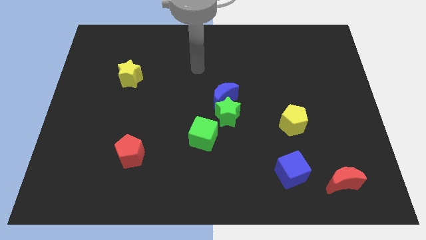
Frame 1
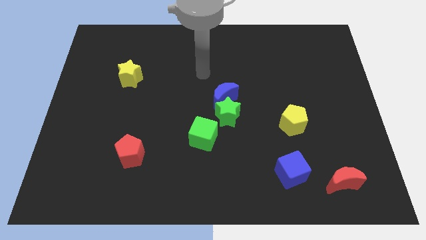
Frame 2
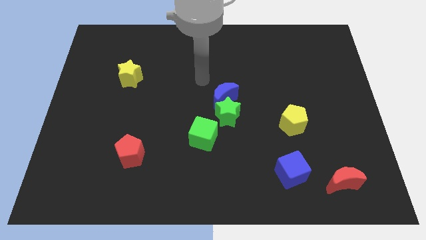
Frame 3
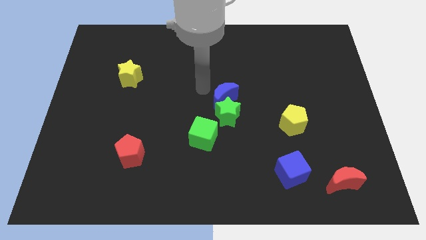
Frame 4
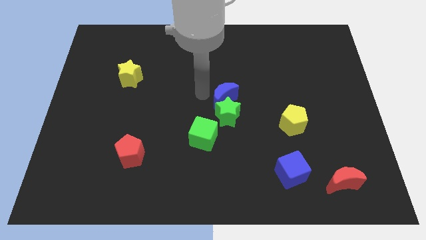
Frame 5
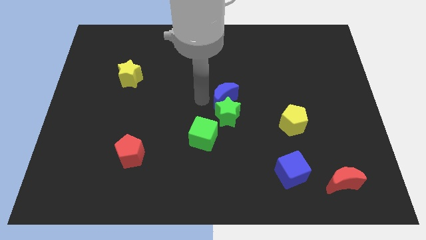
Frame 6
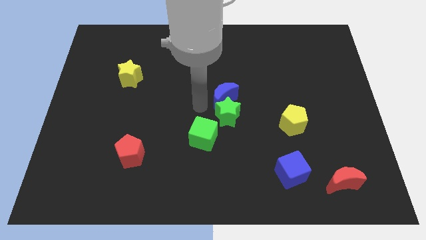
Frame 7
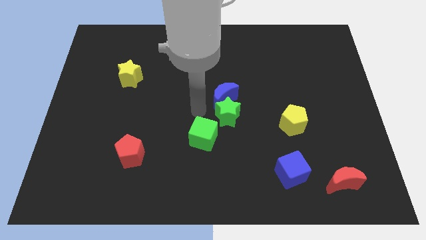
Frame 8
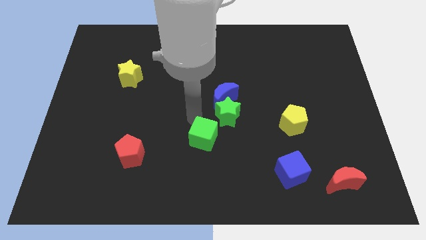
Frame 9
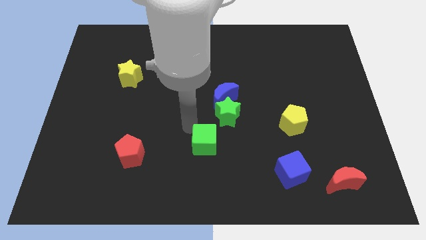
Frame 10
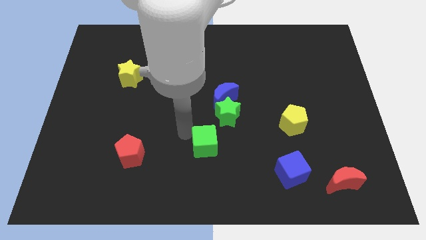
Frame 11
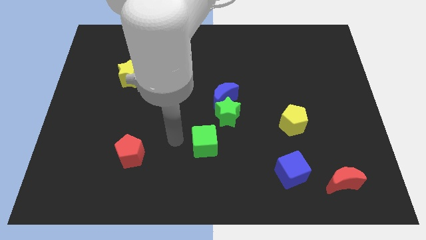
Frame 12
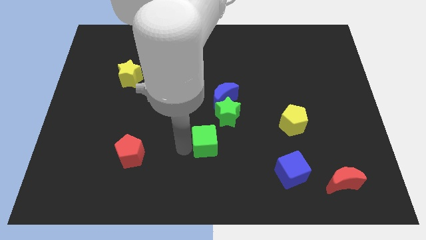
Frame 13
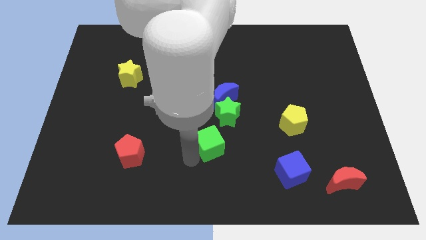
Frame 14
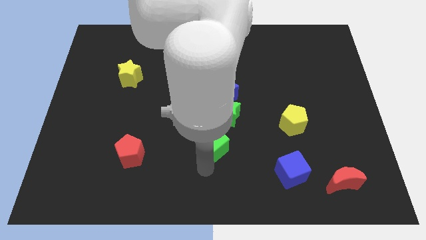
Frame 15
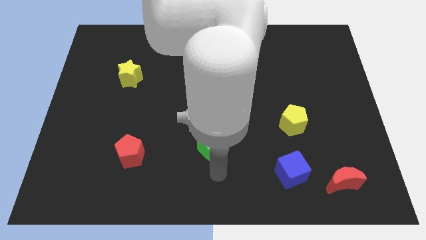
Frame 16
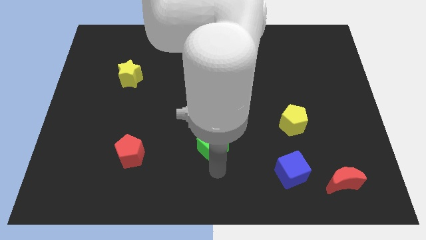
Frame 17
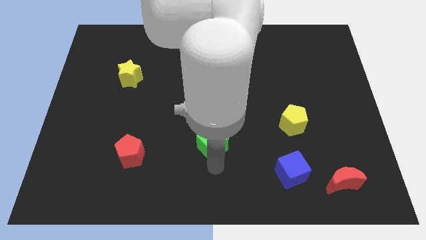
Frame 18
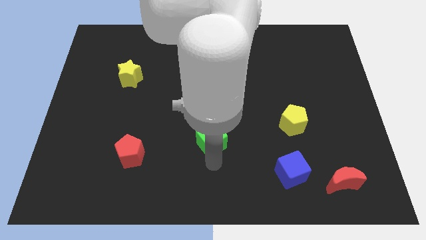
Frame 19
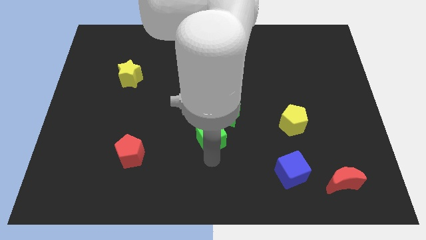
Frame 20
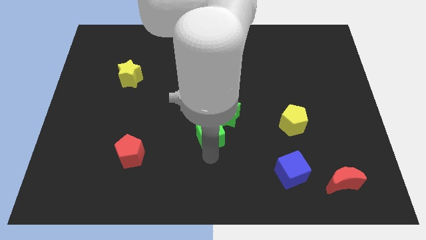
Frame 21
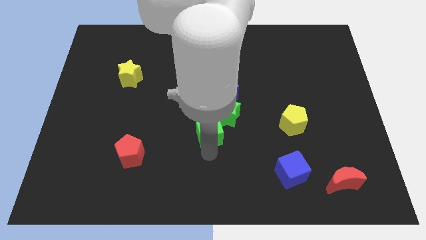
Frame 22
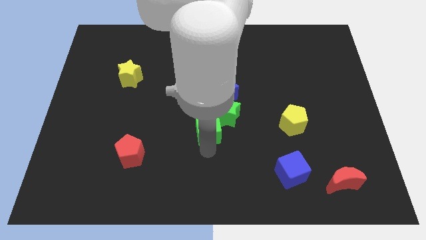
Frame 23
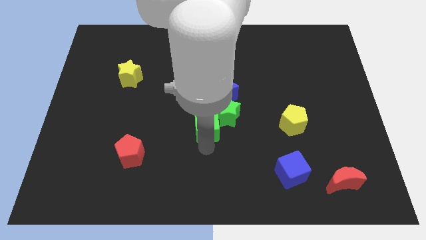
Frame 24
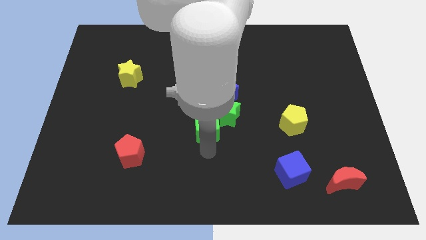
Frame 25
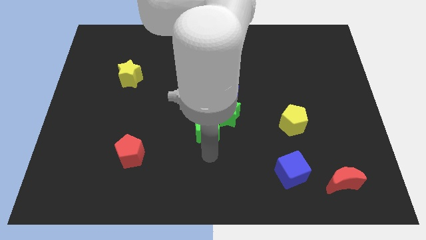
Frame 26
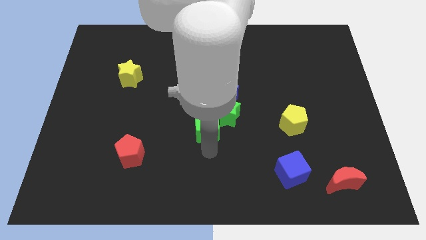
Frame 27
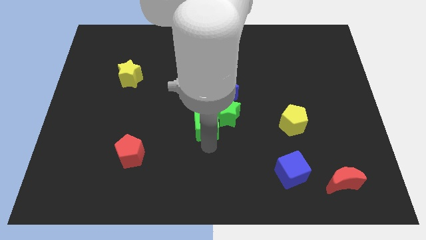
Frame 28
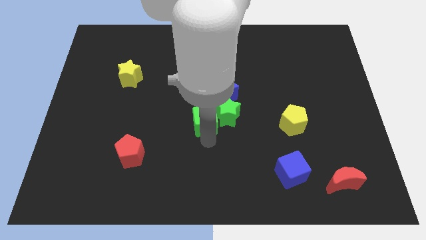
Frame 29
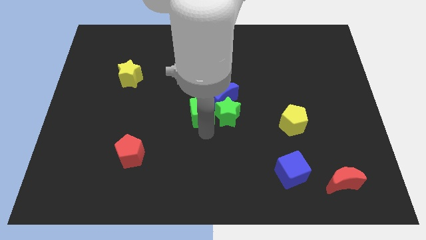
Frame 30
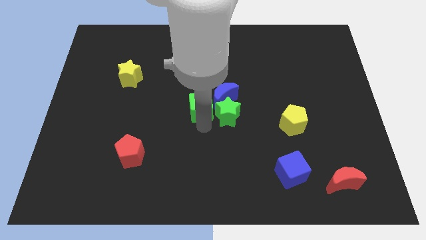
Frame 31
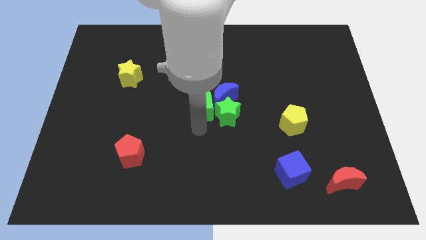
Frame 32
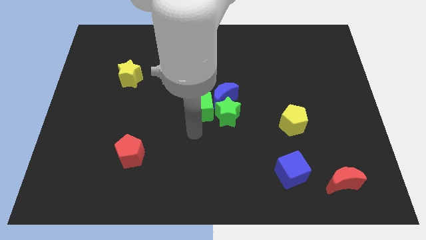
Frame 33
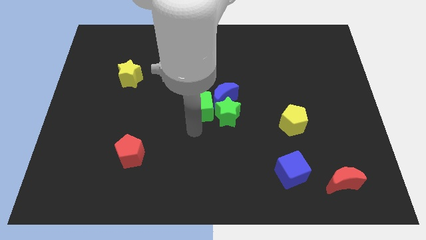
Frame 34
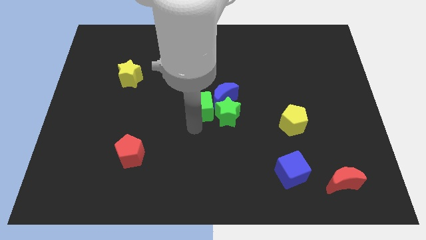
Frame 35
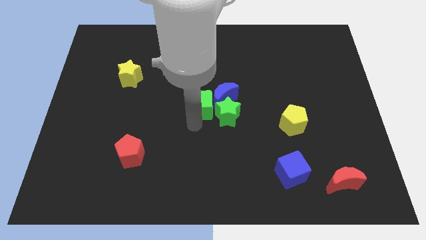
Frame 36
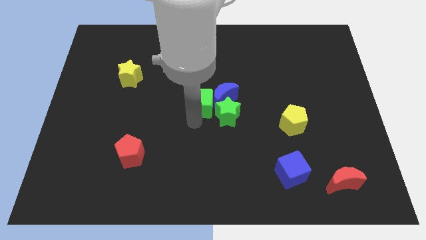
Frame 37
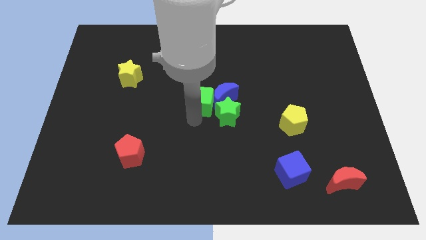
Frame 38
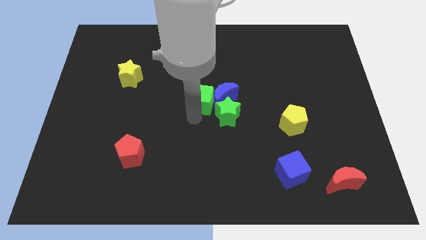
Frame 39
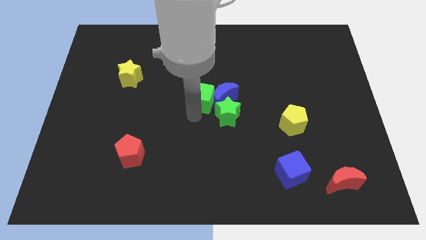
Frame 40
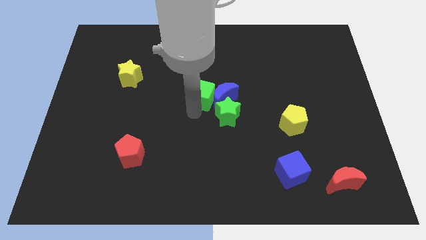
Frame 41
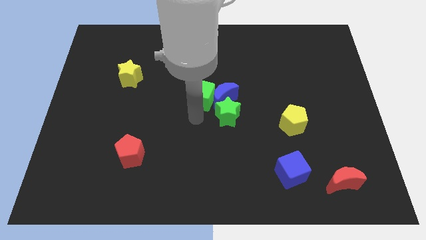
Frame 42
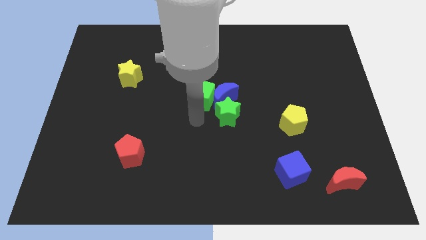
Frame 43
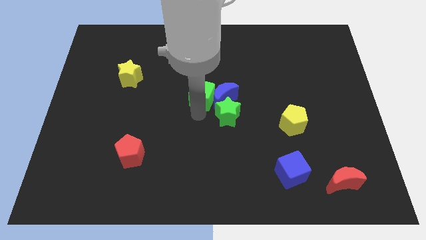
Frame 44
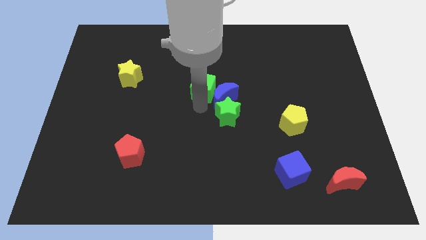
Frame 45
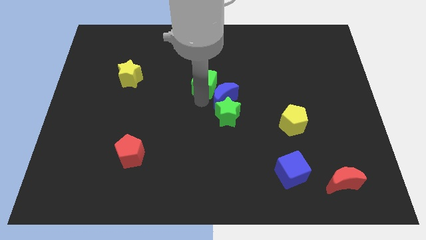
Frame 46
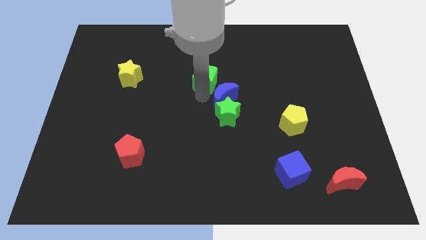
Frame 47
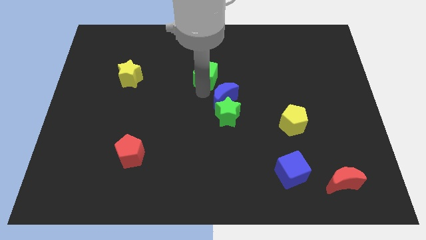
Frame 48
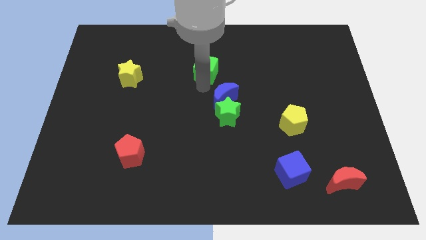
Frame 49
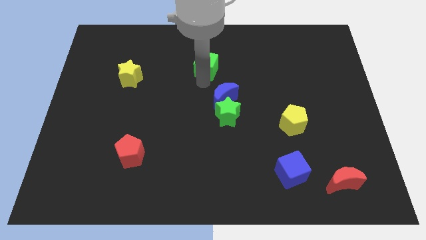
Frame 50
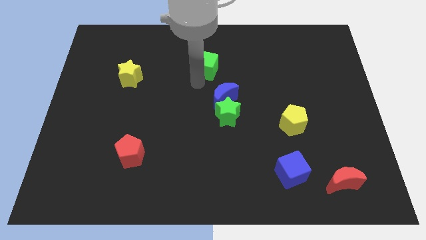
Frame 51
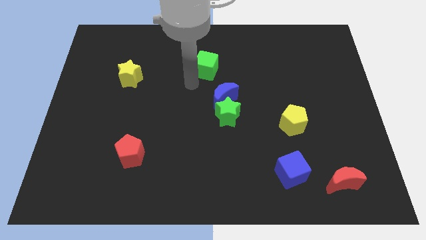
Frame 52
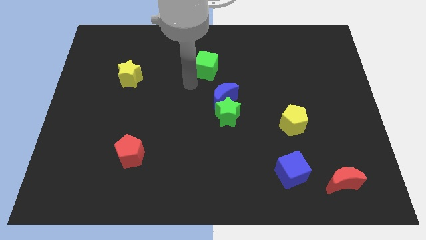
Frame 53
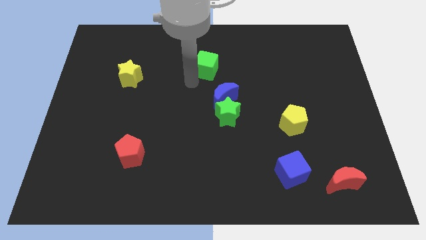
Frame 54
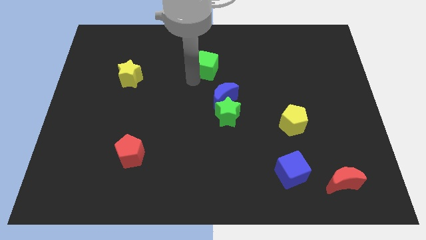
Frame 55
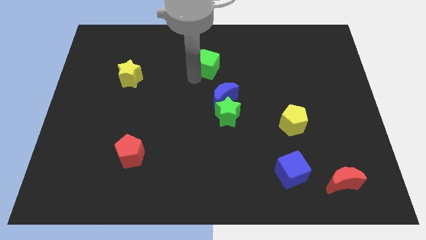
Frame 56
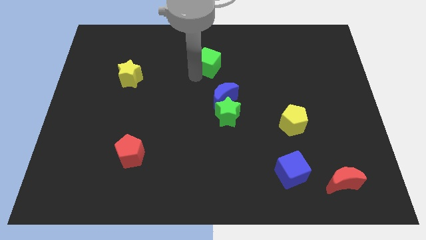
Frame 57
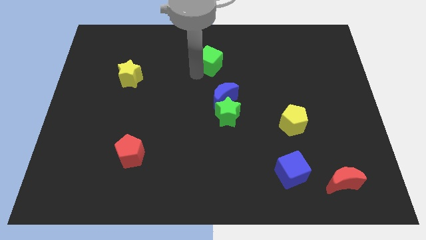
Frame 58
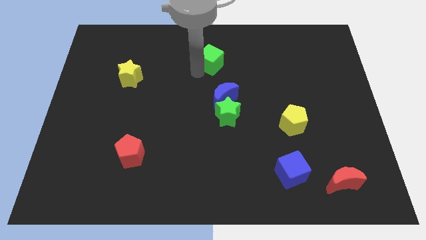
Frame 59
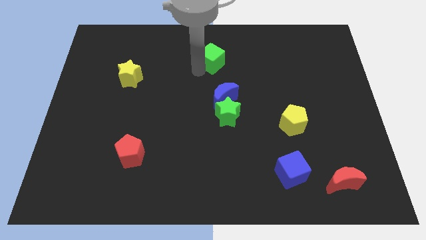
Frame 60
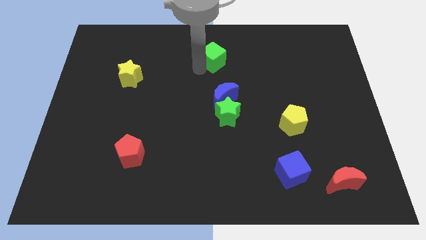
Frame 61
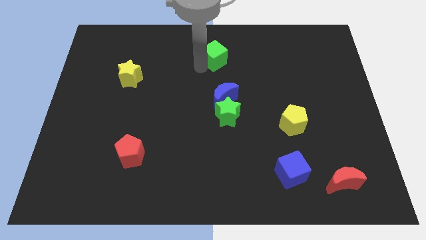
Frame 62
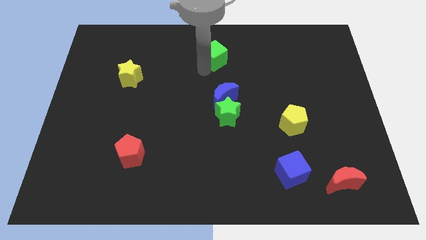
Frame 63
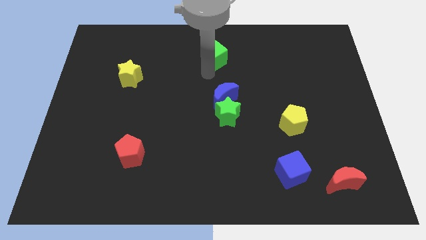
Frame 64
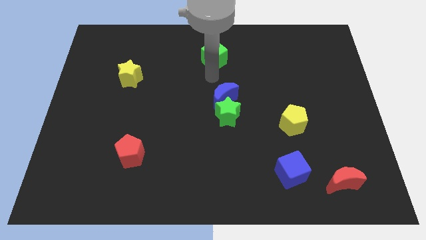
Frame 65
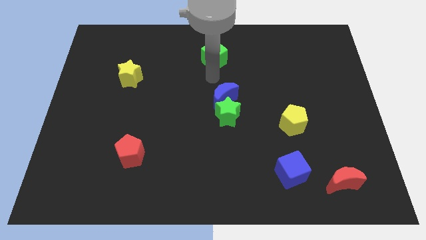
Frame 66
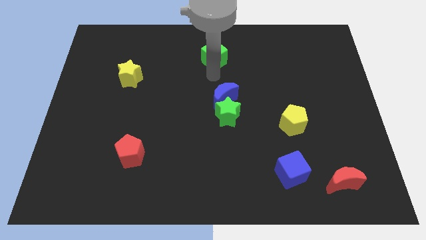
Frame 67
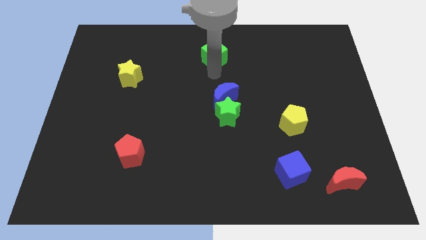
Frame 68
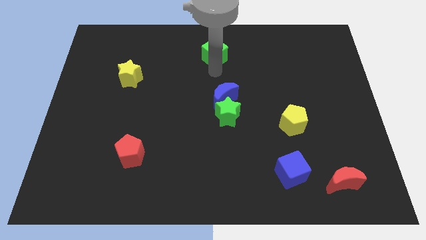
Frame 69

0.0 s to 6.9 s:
move the green cube to the top

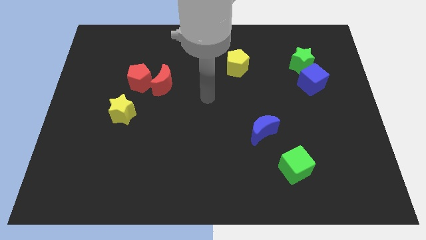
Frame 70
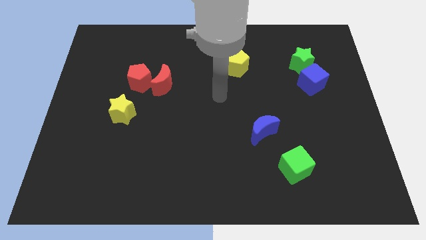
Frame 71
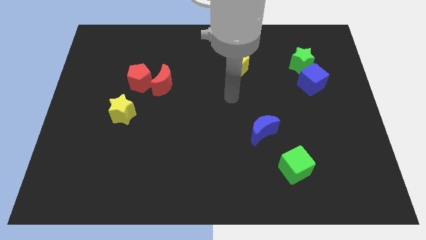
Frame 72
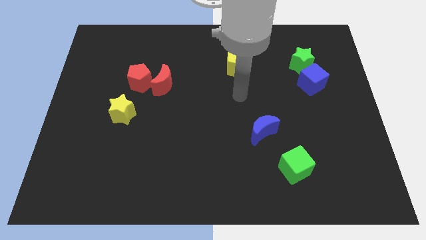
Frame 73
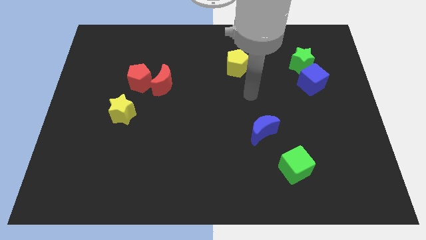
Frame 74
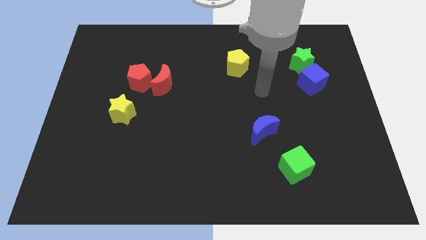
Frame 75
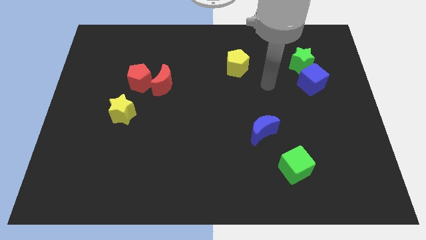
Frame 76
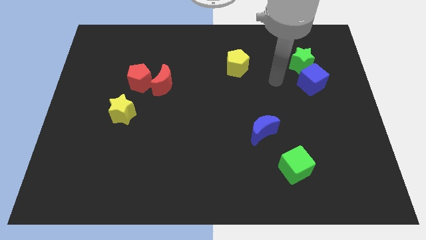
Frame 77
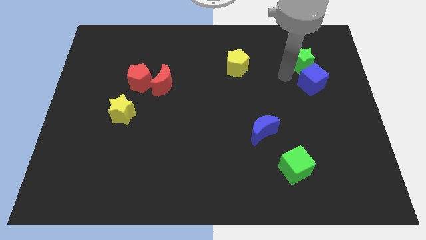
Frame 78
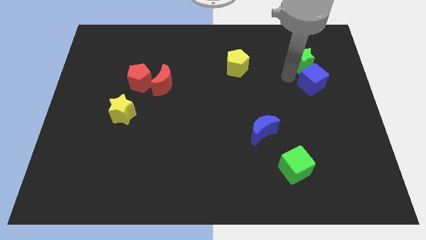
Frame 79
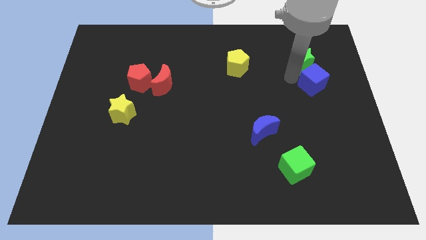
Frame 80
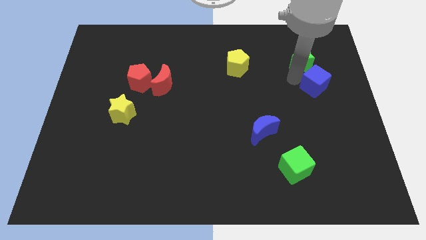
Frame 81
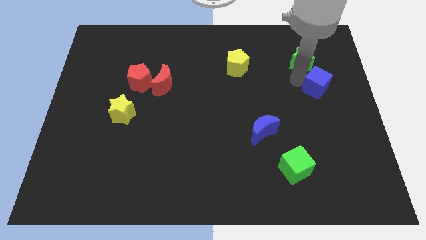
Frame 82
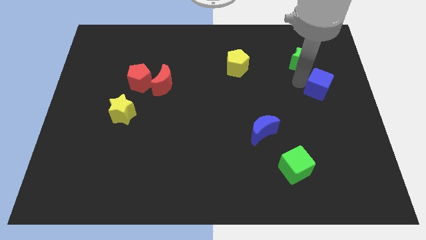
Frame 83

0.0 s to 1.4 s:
move the blue cube to the right side
